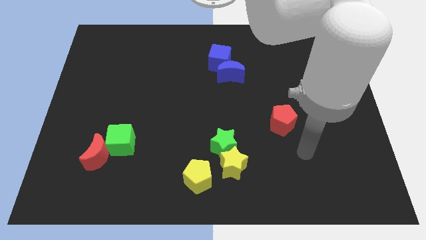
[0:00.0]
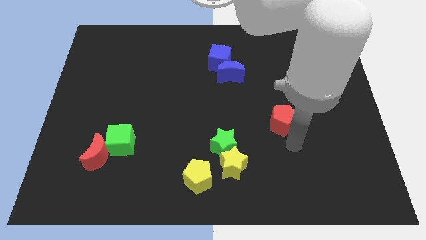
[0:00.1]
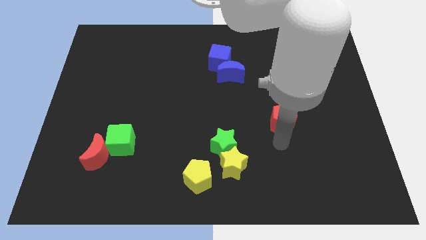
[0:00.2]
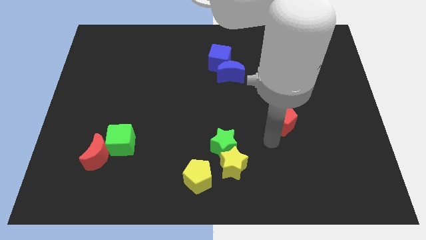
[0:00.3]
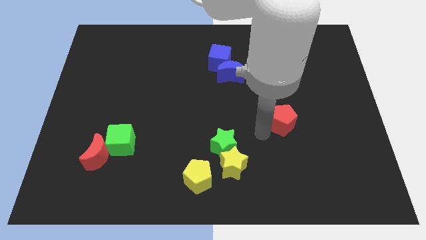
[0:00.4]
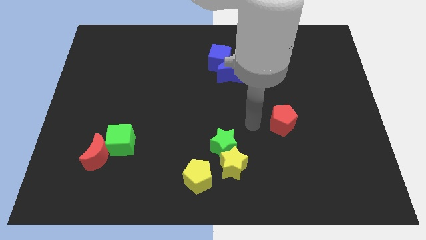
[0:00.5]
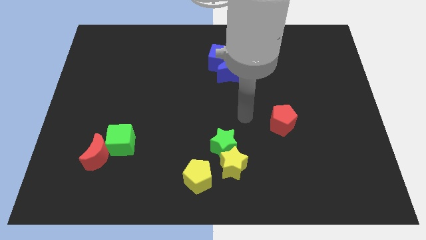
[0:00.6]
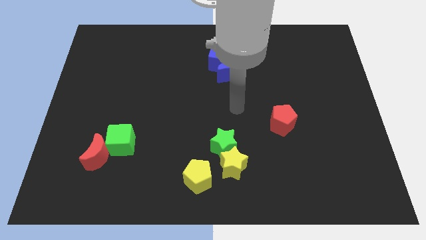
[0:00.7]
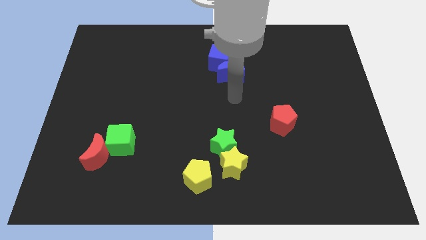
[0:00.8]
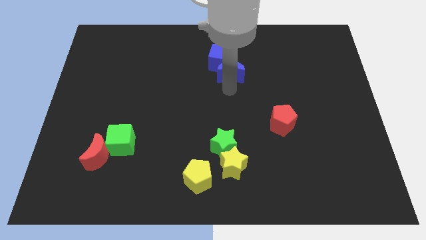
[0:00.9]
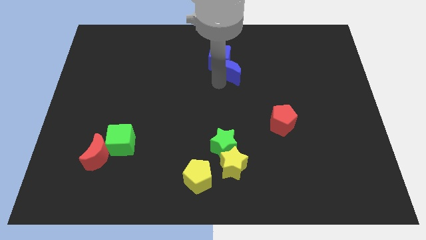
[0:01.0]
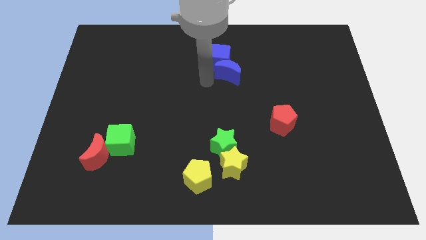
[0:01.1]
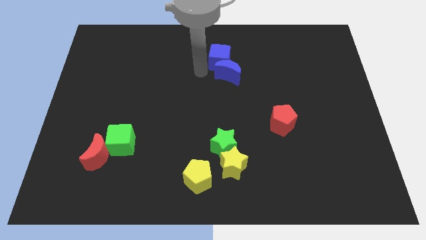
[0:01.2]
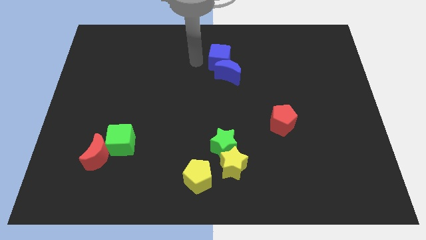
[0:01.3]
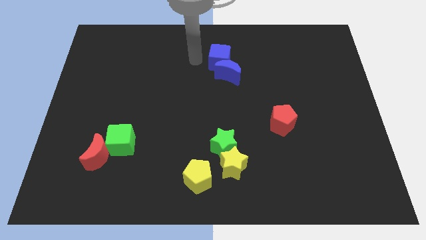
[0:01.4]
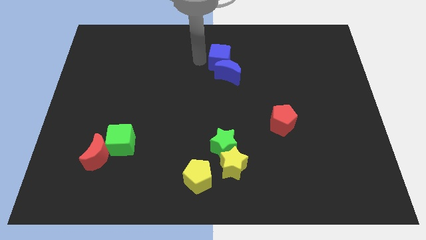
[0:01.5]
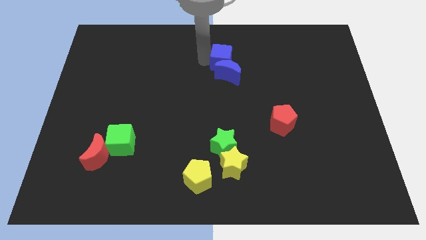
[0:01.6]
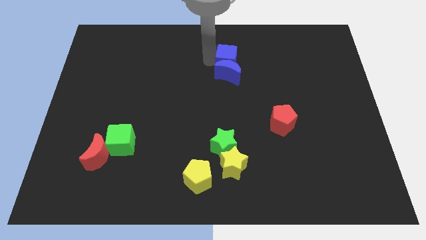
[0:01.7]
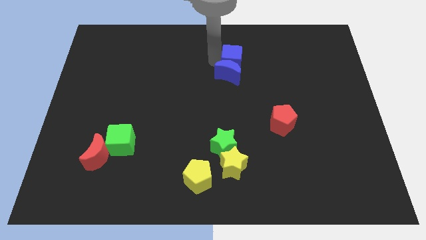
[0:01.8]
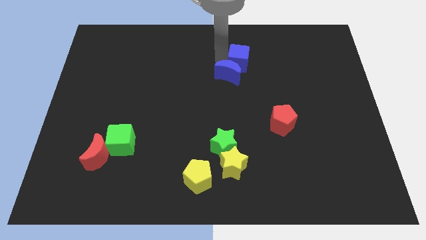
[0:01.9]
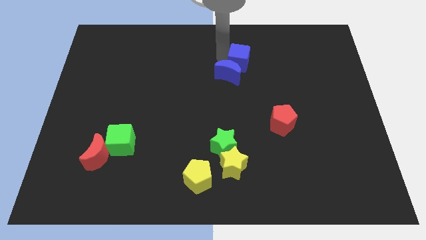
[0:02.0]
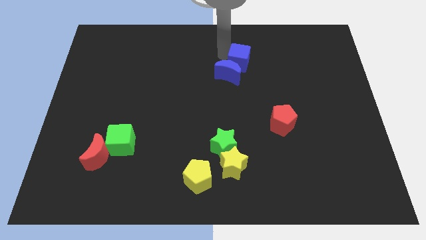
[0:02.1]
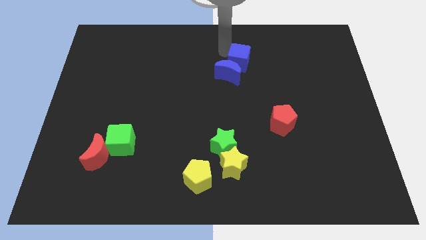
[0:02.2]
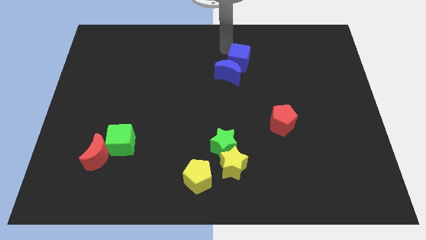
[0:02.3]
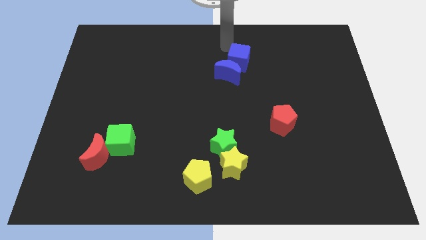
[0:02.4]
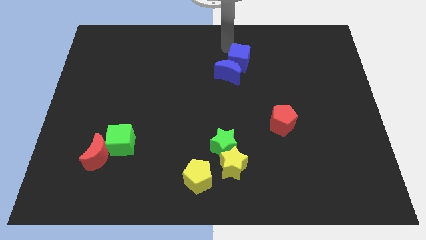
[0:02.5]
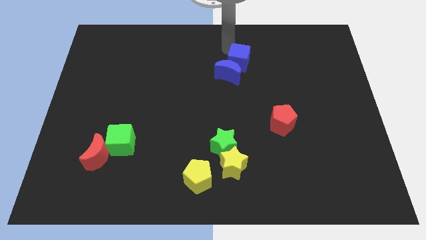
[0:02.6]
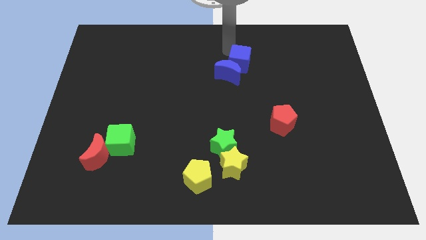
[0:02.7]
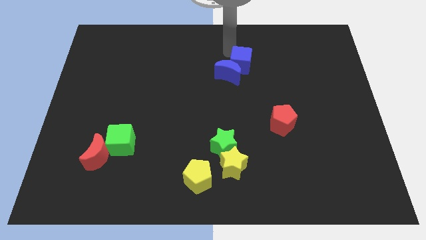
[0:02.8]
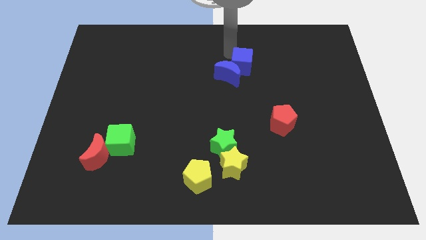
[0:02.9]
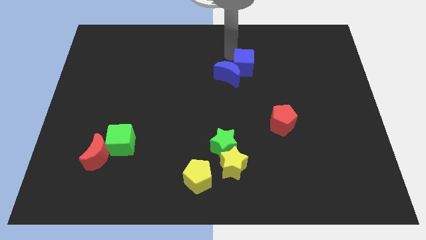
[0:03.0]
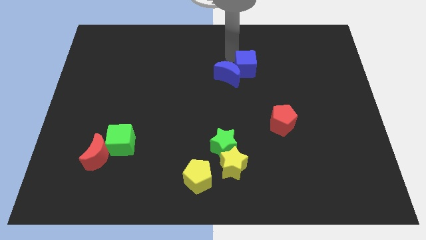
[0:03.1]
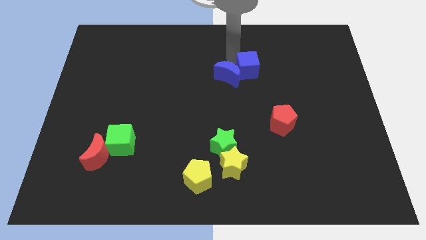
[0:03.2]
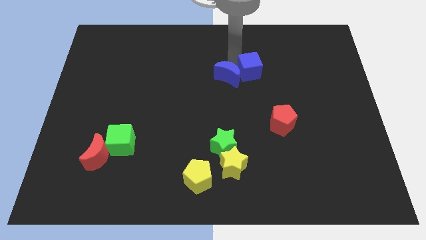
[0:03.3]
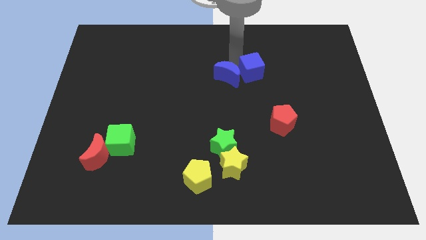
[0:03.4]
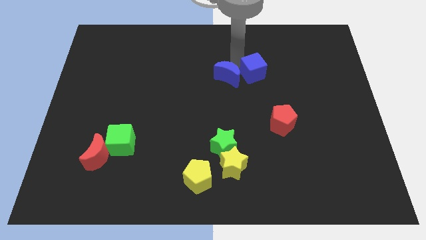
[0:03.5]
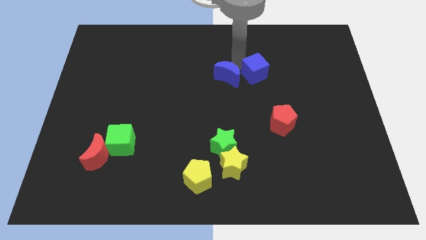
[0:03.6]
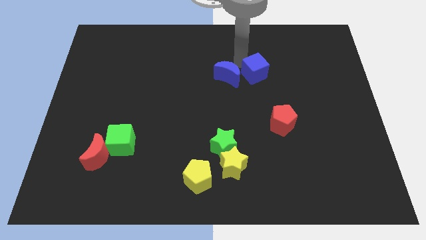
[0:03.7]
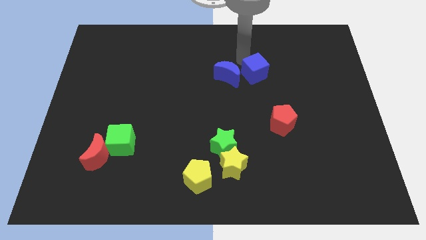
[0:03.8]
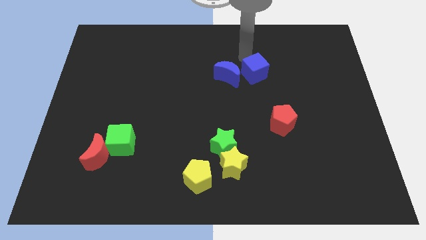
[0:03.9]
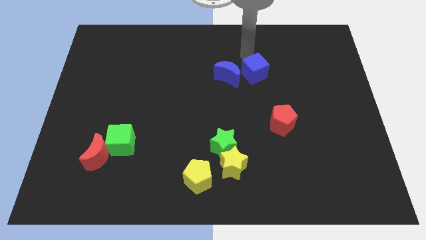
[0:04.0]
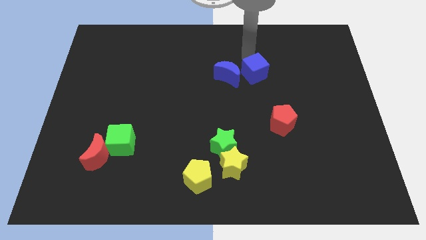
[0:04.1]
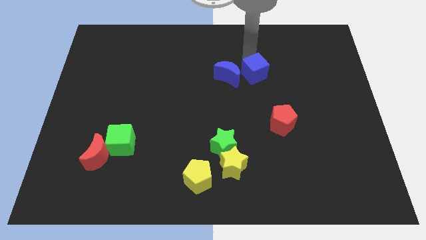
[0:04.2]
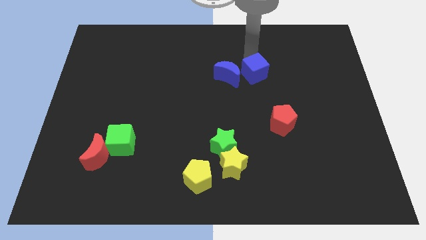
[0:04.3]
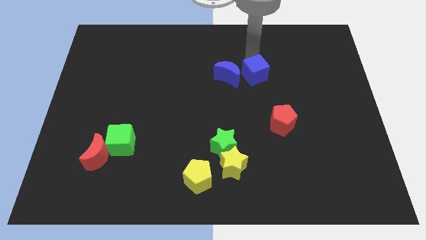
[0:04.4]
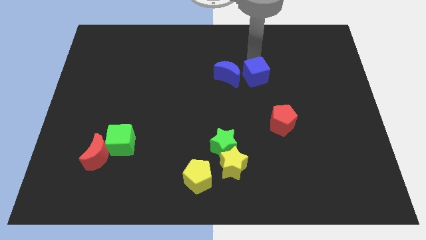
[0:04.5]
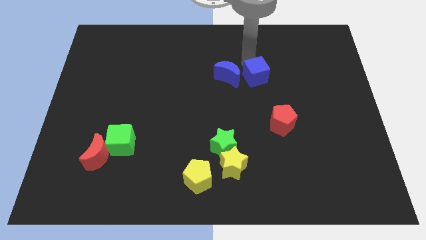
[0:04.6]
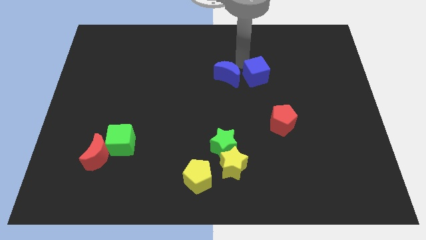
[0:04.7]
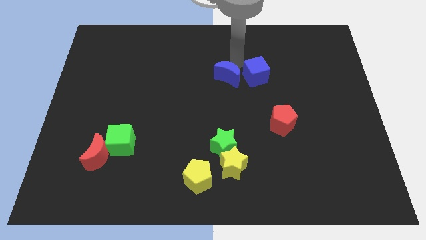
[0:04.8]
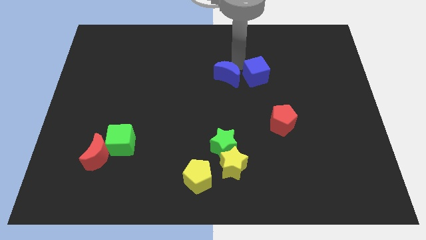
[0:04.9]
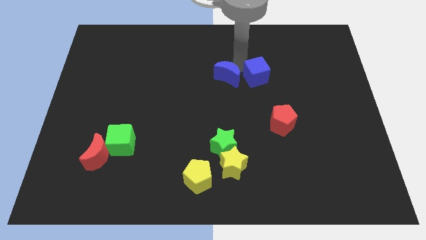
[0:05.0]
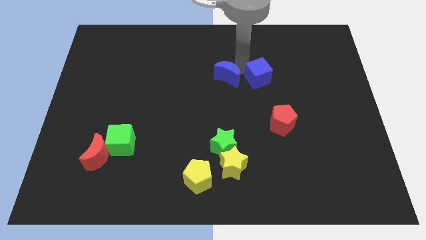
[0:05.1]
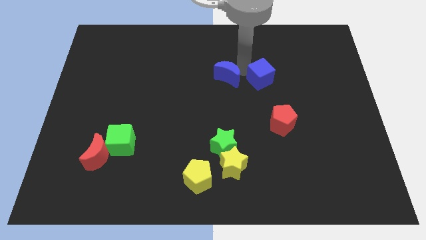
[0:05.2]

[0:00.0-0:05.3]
push the blue cube to the top of the red pentagon

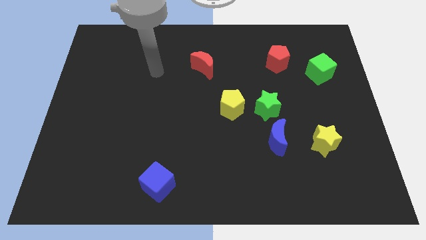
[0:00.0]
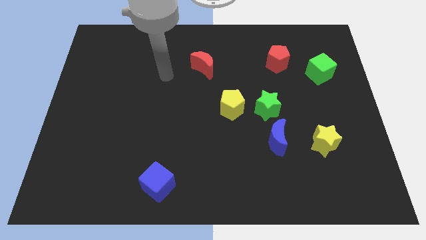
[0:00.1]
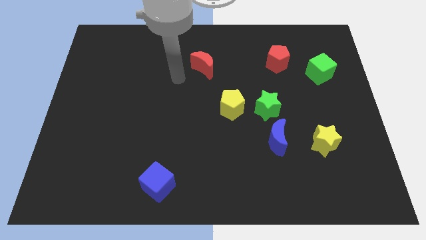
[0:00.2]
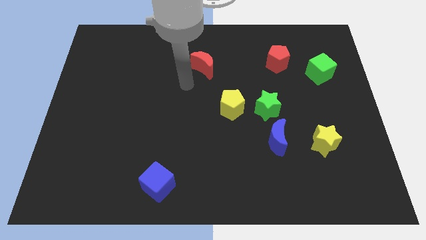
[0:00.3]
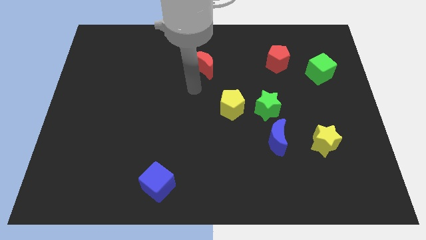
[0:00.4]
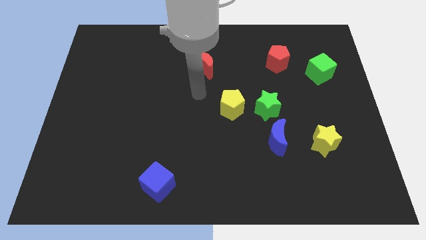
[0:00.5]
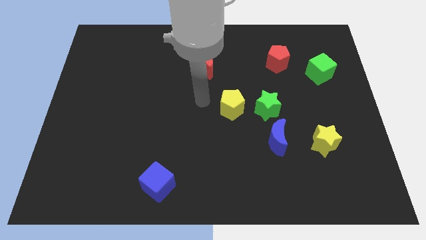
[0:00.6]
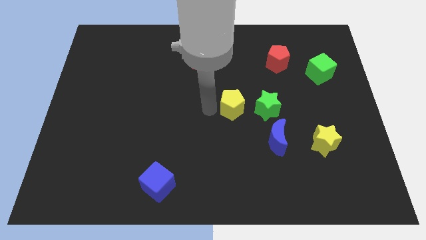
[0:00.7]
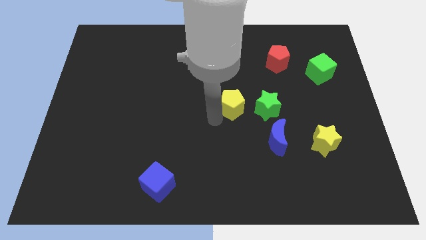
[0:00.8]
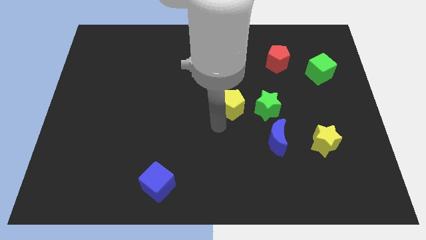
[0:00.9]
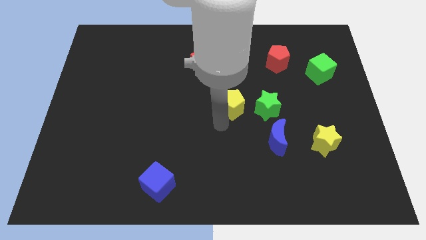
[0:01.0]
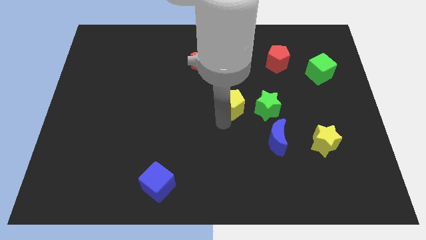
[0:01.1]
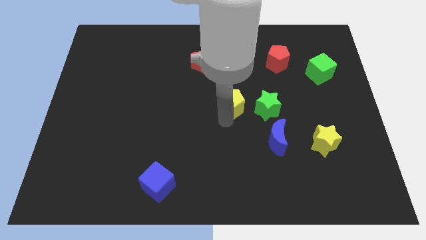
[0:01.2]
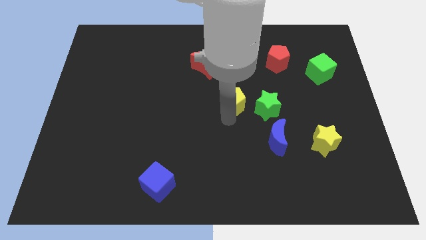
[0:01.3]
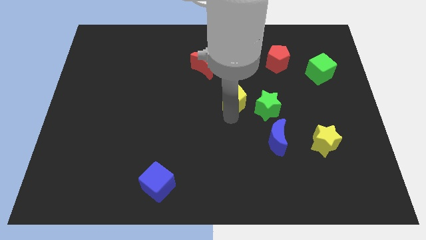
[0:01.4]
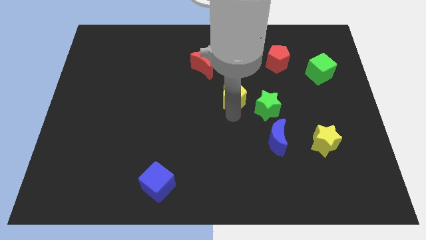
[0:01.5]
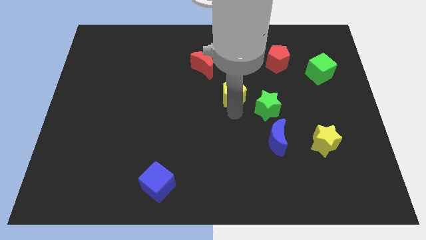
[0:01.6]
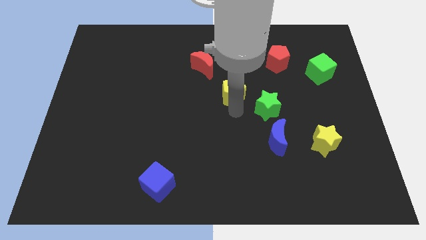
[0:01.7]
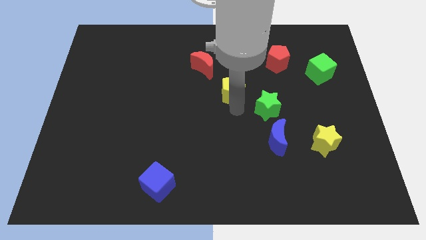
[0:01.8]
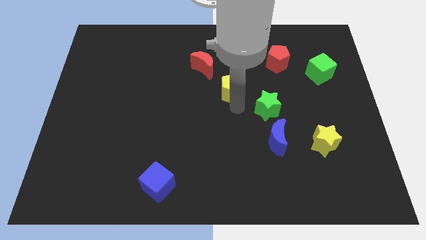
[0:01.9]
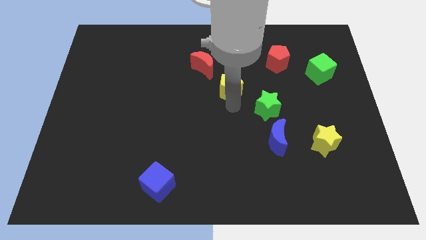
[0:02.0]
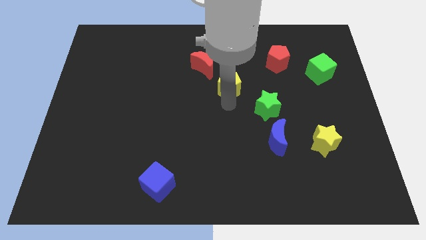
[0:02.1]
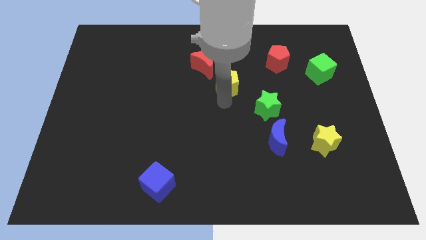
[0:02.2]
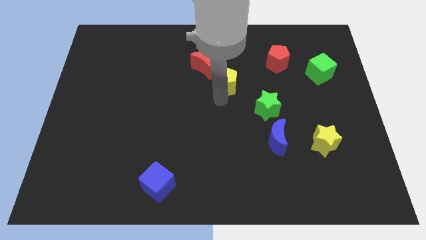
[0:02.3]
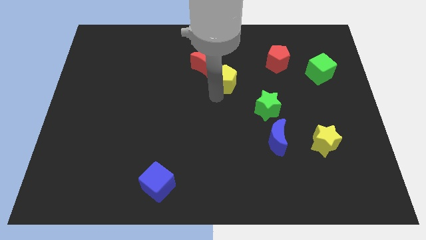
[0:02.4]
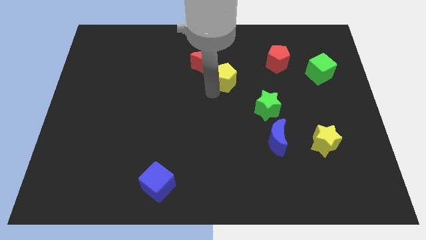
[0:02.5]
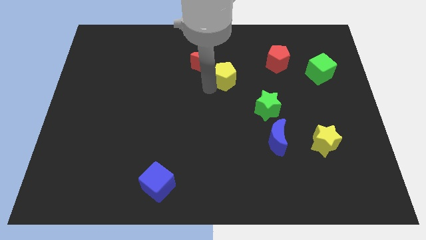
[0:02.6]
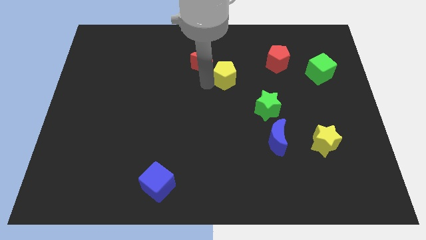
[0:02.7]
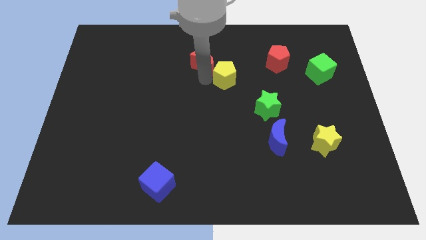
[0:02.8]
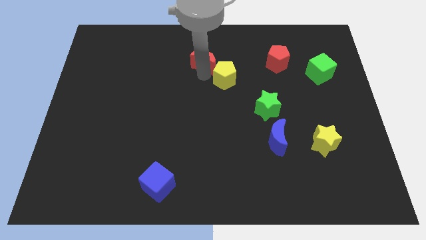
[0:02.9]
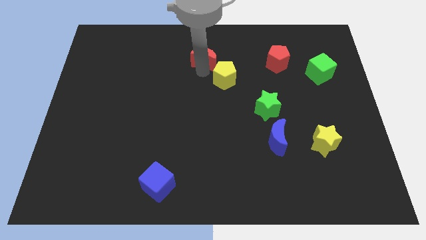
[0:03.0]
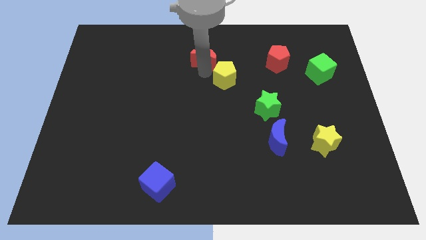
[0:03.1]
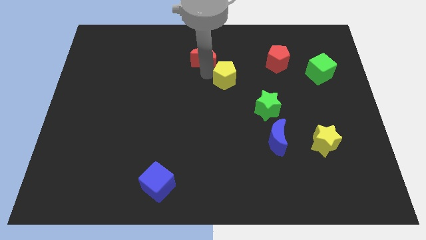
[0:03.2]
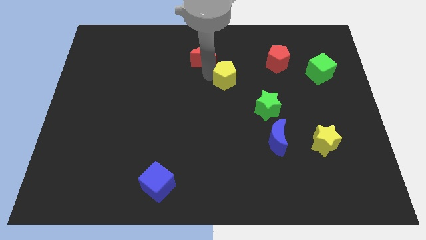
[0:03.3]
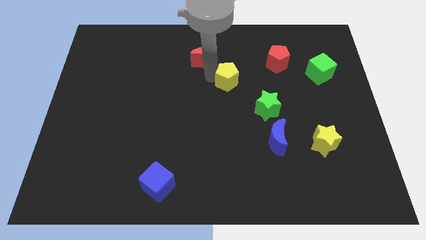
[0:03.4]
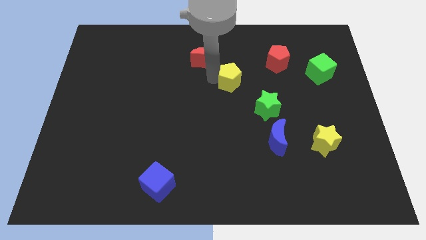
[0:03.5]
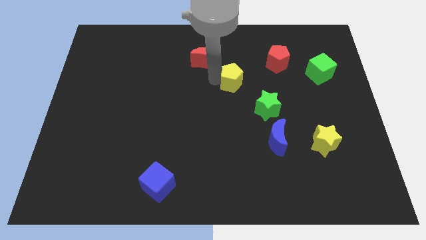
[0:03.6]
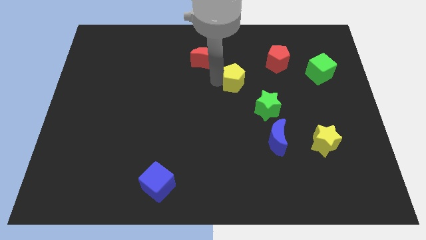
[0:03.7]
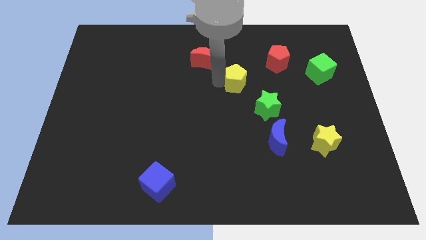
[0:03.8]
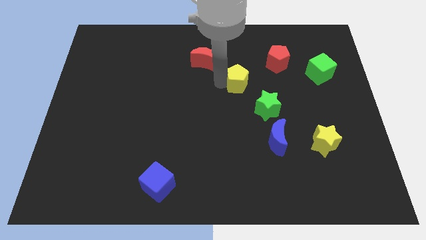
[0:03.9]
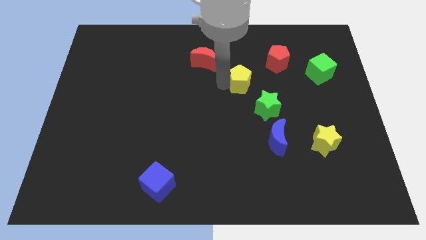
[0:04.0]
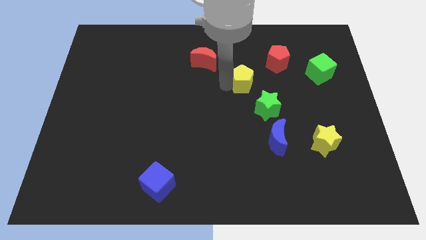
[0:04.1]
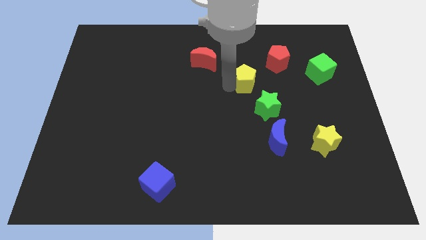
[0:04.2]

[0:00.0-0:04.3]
slide the yellow pentagon above the green star
